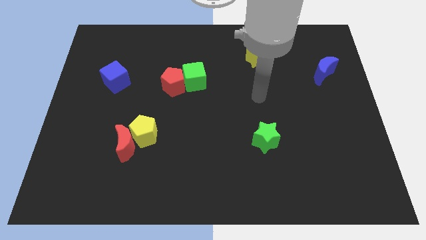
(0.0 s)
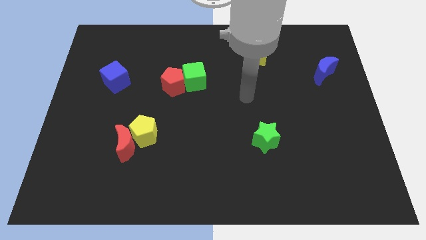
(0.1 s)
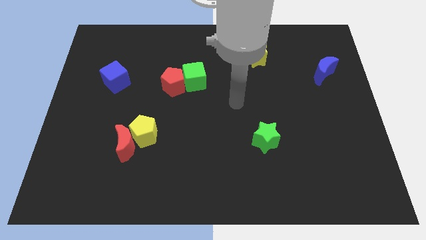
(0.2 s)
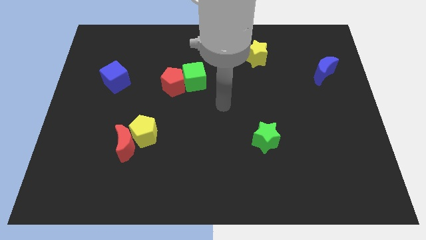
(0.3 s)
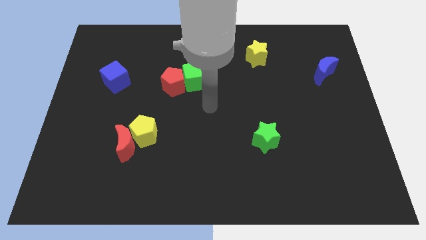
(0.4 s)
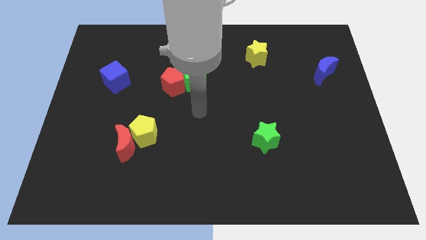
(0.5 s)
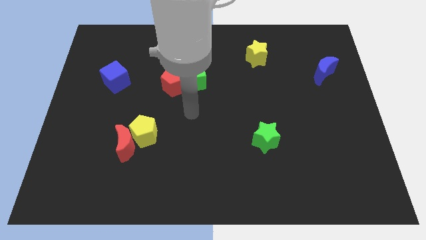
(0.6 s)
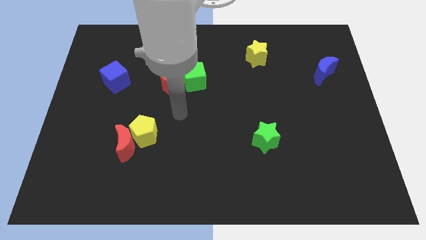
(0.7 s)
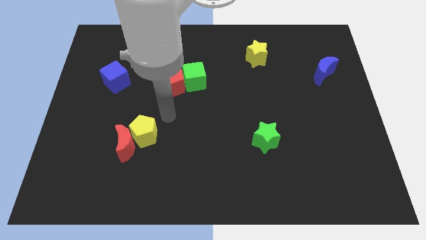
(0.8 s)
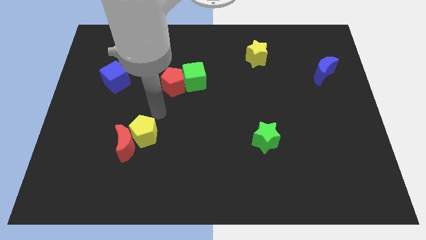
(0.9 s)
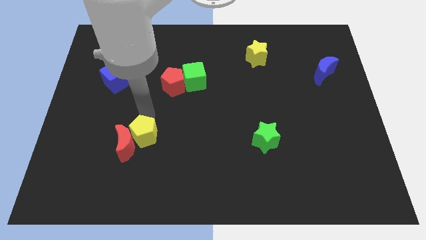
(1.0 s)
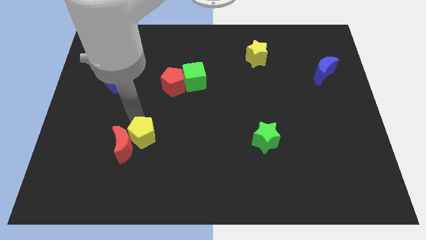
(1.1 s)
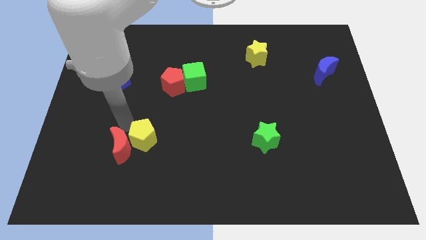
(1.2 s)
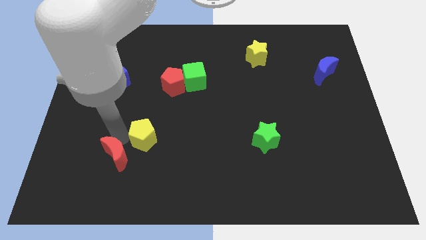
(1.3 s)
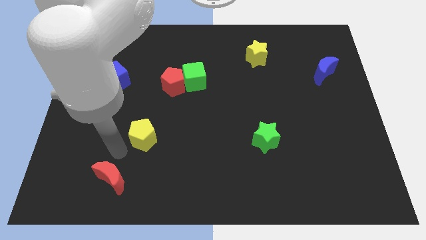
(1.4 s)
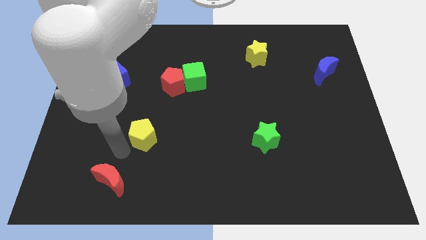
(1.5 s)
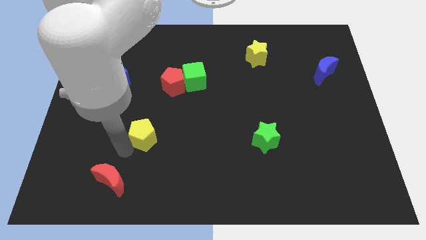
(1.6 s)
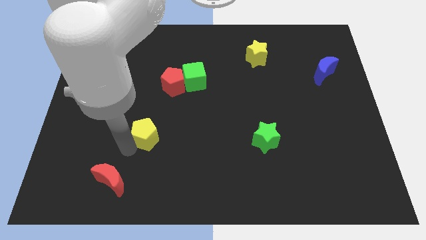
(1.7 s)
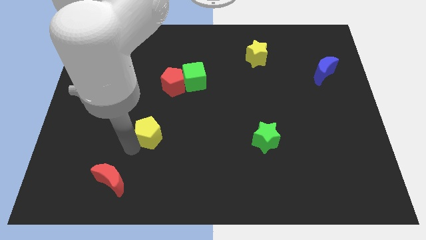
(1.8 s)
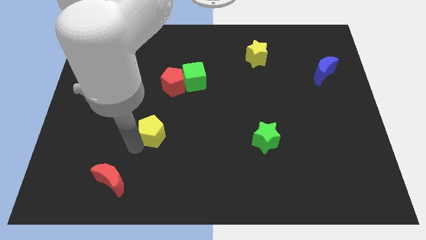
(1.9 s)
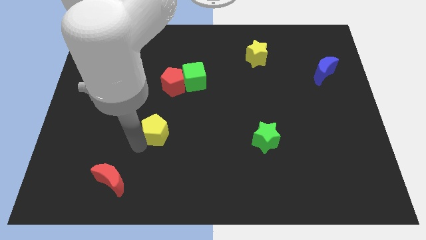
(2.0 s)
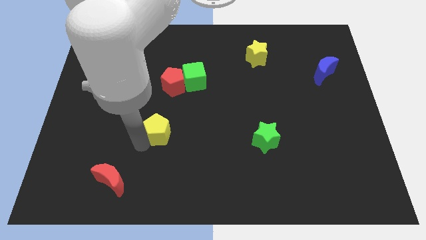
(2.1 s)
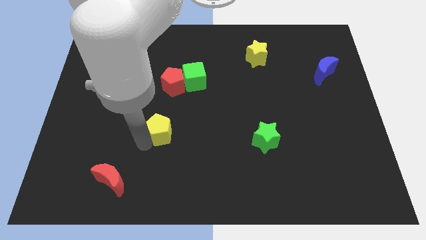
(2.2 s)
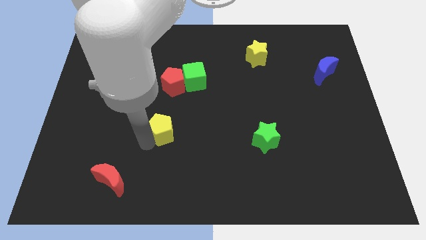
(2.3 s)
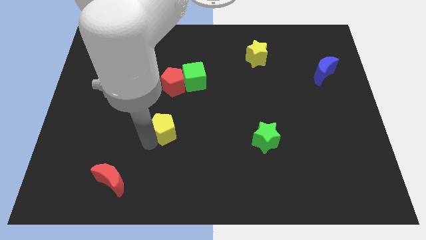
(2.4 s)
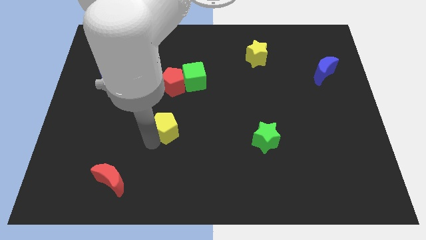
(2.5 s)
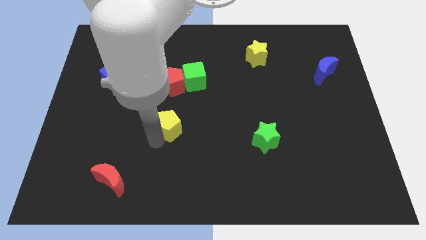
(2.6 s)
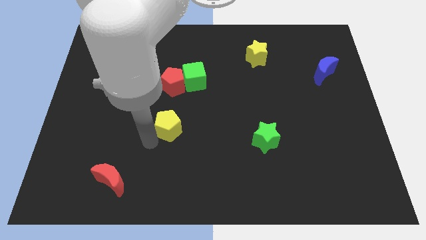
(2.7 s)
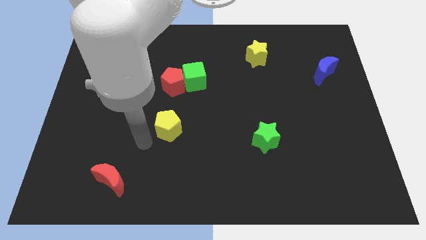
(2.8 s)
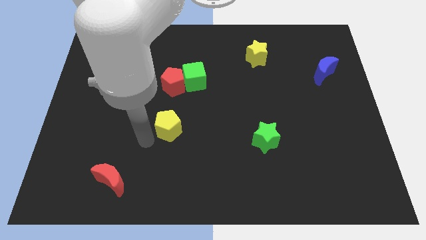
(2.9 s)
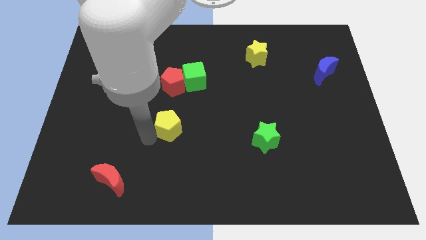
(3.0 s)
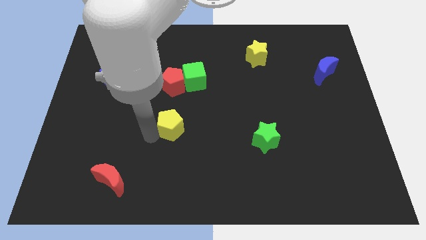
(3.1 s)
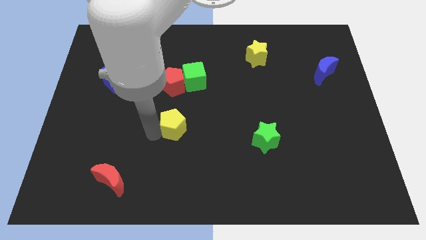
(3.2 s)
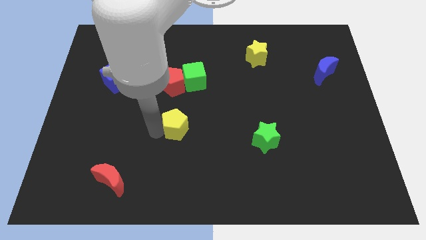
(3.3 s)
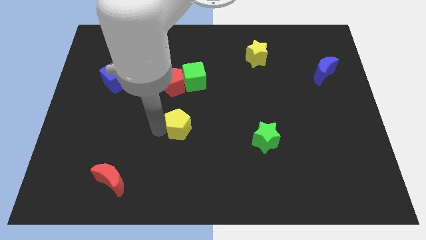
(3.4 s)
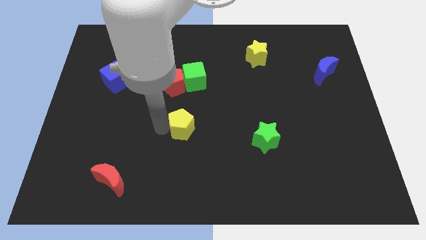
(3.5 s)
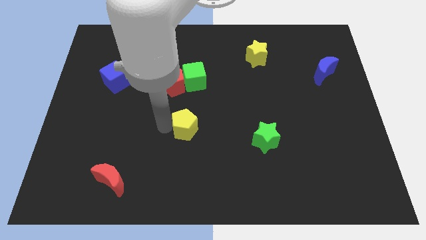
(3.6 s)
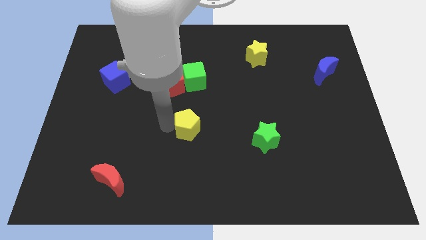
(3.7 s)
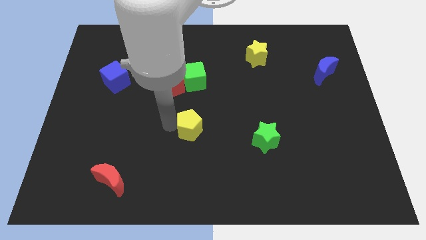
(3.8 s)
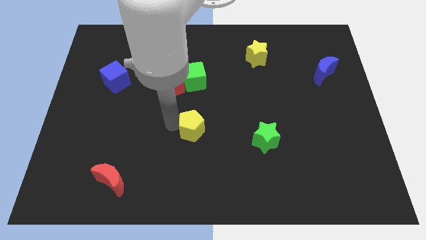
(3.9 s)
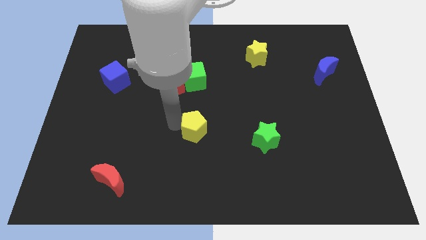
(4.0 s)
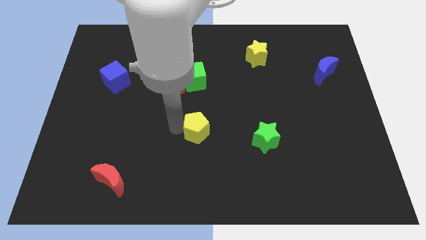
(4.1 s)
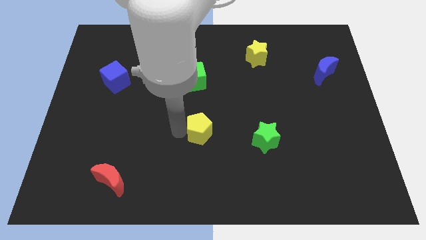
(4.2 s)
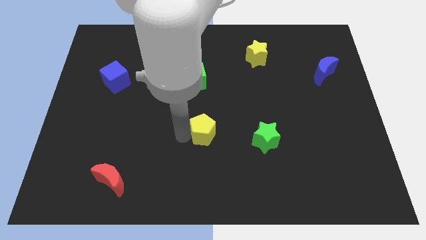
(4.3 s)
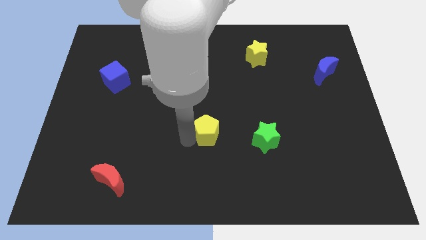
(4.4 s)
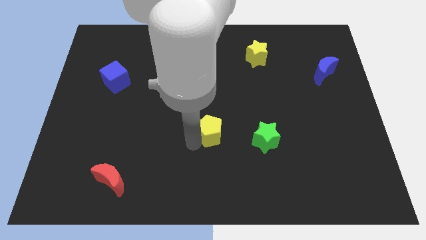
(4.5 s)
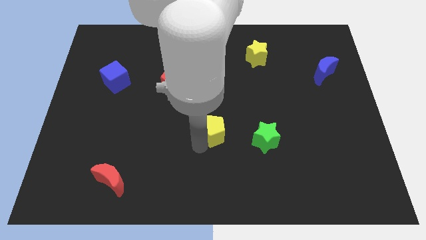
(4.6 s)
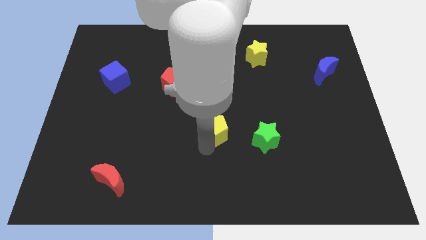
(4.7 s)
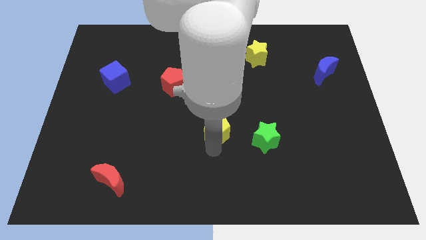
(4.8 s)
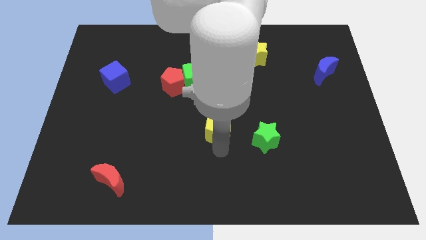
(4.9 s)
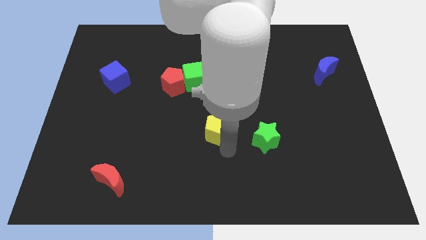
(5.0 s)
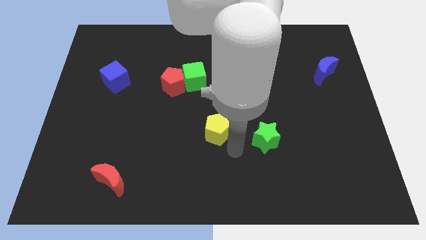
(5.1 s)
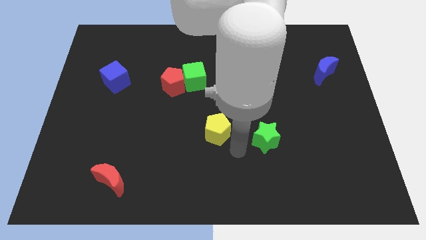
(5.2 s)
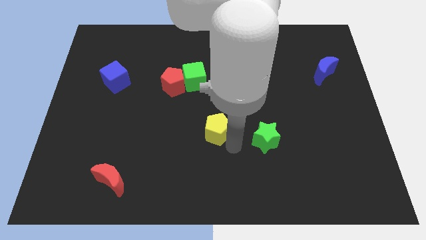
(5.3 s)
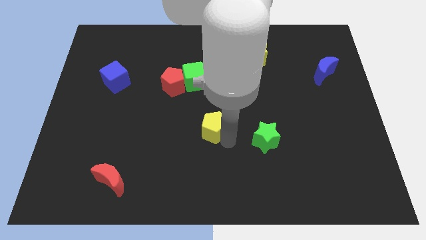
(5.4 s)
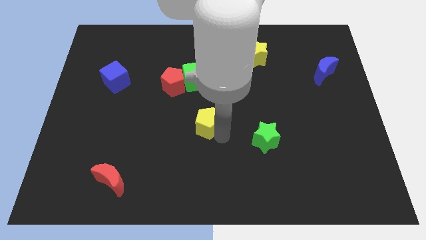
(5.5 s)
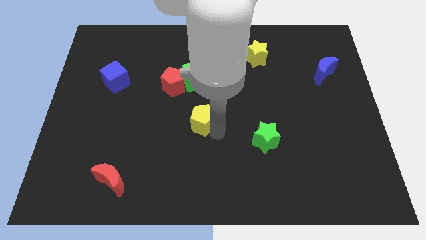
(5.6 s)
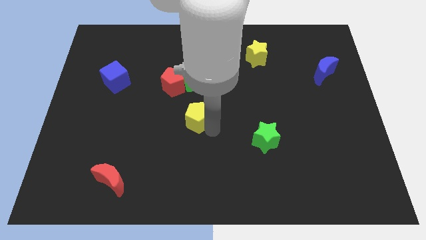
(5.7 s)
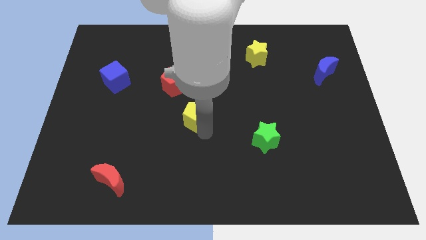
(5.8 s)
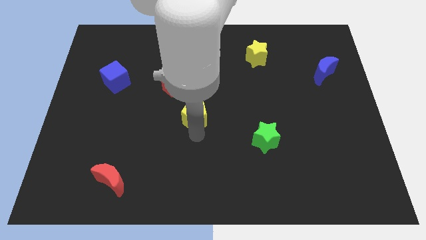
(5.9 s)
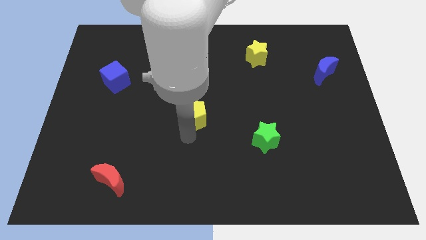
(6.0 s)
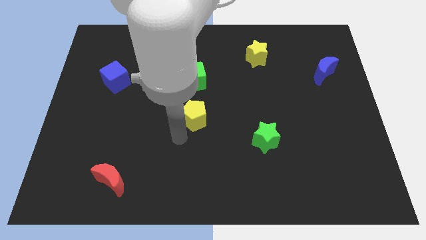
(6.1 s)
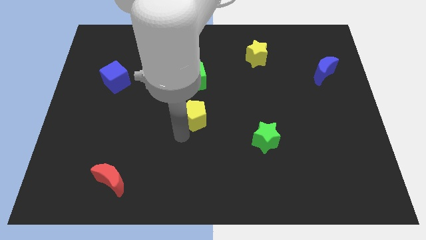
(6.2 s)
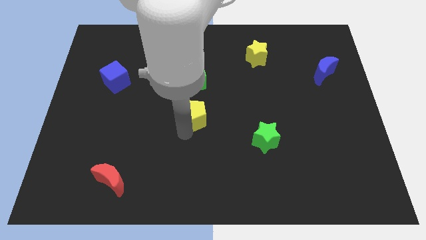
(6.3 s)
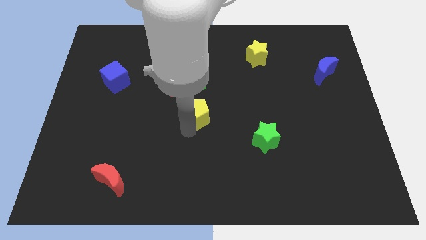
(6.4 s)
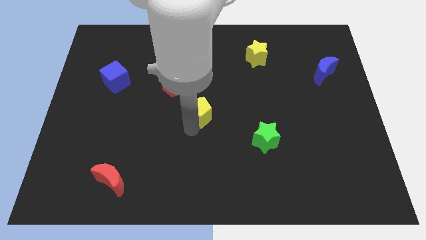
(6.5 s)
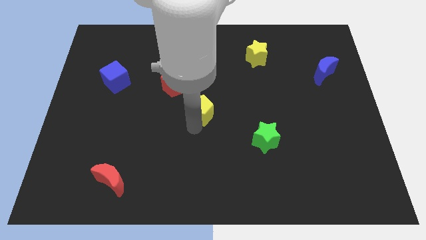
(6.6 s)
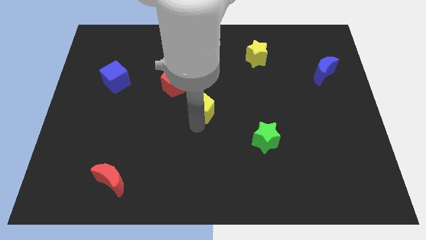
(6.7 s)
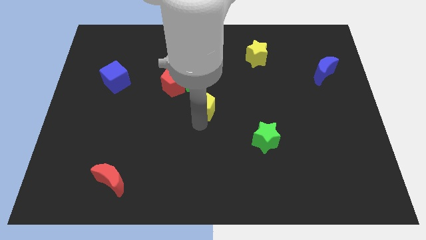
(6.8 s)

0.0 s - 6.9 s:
slide the yellow pentagon to the bottom right side of the green cube
